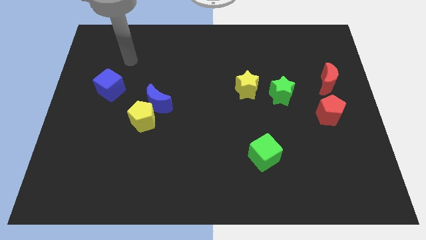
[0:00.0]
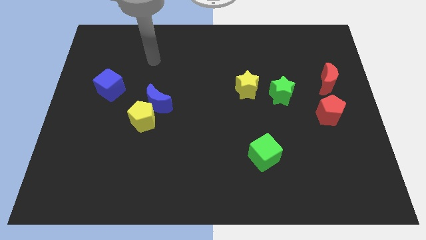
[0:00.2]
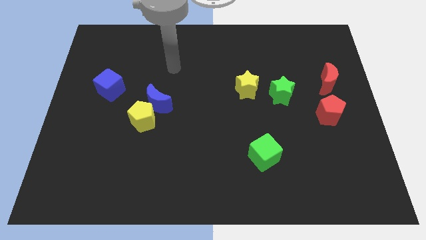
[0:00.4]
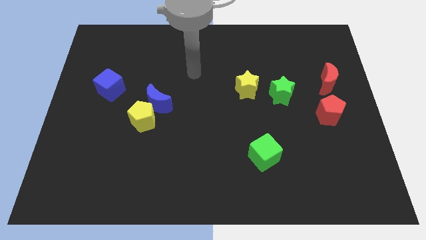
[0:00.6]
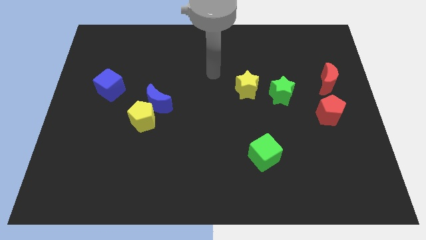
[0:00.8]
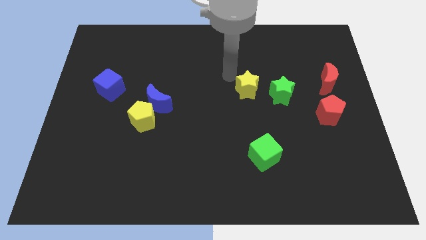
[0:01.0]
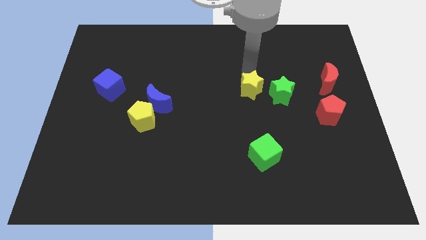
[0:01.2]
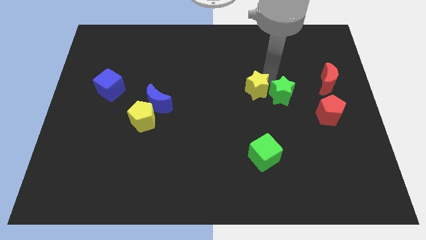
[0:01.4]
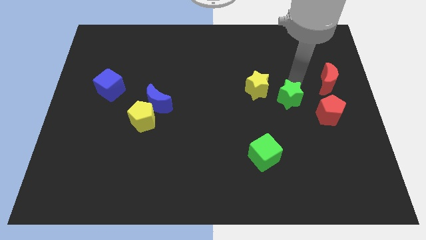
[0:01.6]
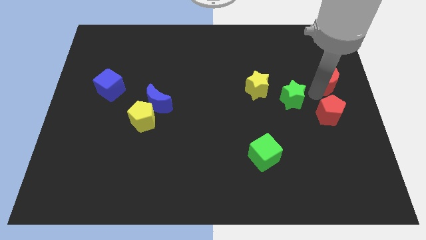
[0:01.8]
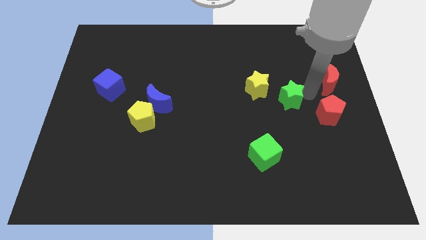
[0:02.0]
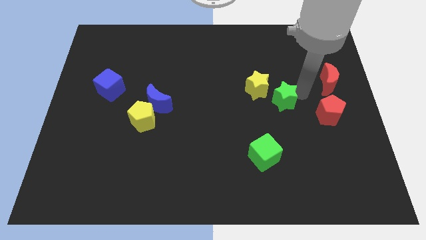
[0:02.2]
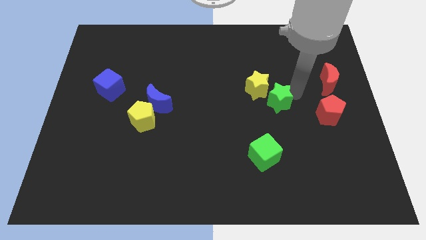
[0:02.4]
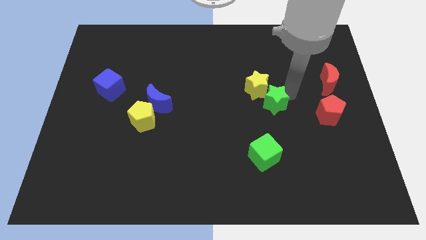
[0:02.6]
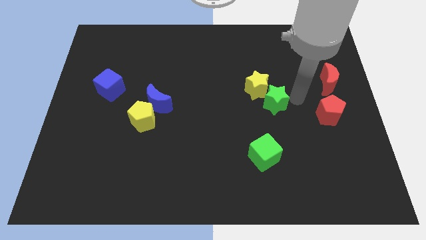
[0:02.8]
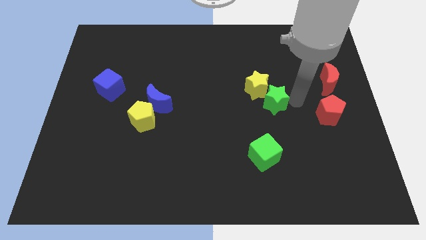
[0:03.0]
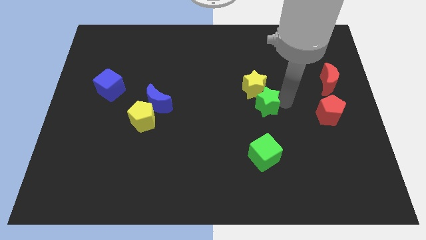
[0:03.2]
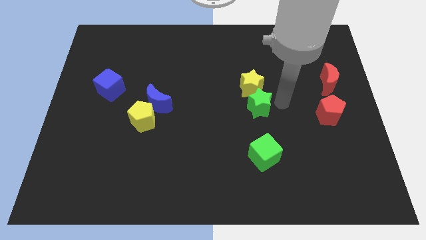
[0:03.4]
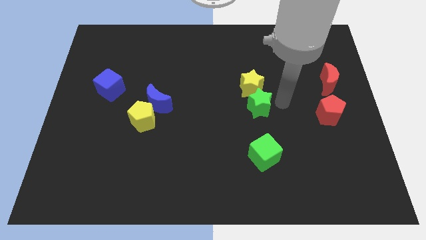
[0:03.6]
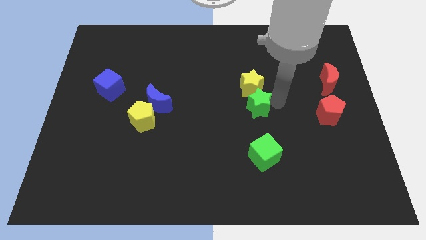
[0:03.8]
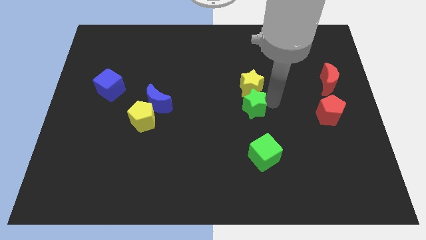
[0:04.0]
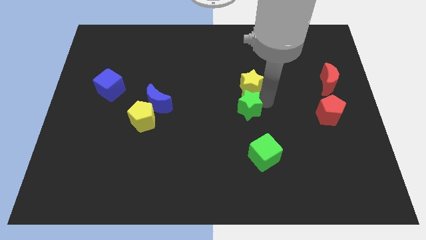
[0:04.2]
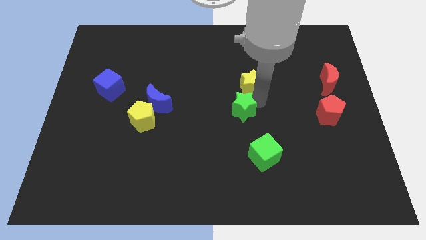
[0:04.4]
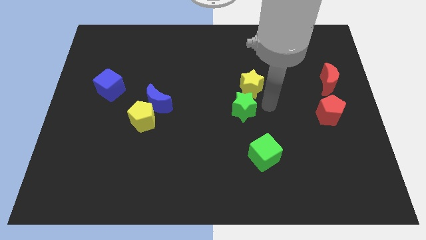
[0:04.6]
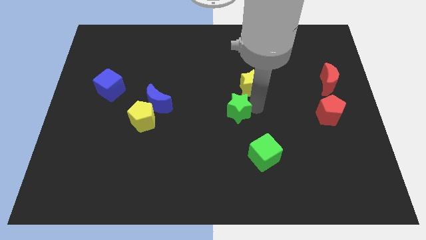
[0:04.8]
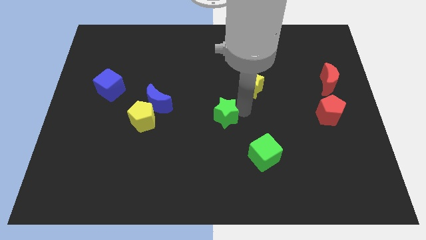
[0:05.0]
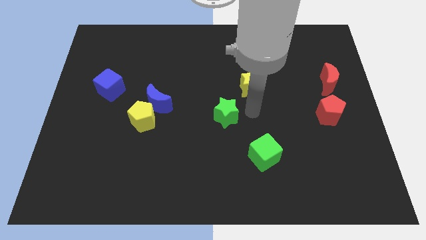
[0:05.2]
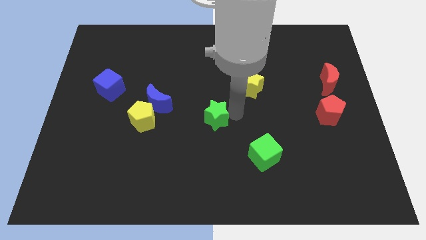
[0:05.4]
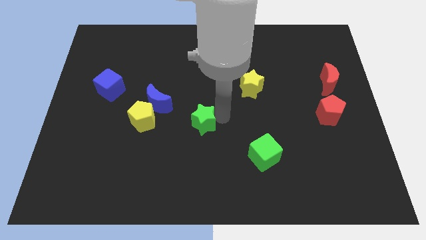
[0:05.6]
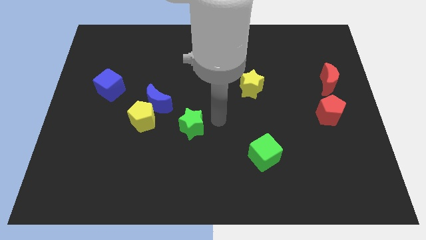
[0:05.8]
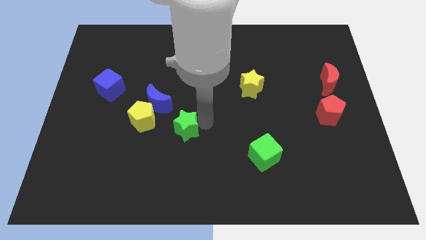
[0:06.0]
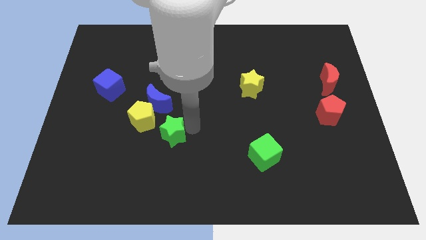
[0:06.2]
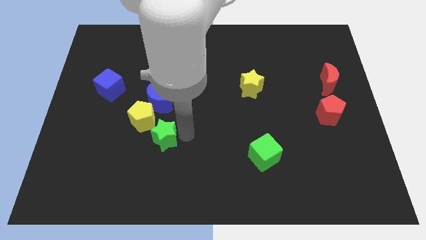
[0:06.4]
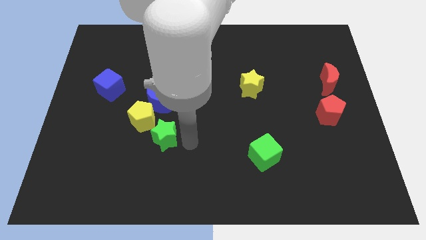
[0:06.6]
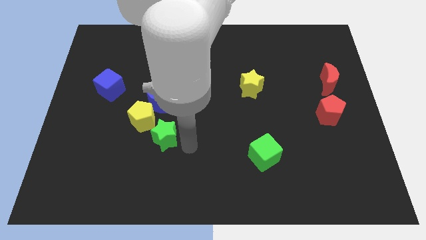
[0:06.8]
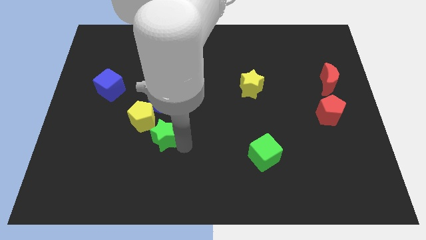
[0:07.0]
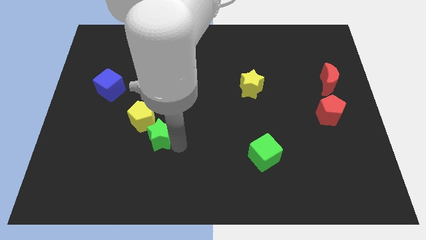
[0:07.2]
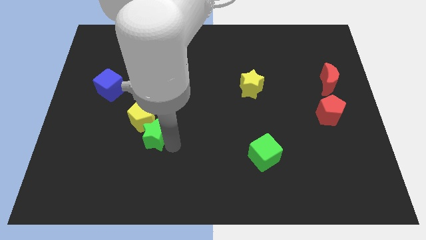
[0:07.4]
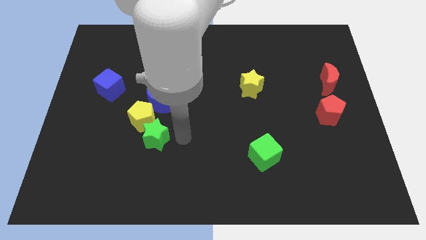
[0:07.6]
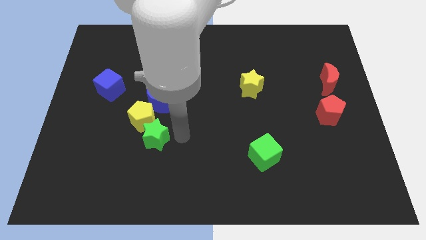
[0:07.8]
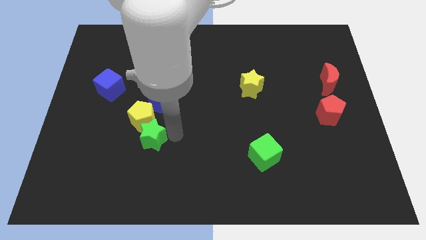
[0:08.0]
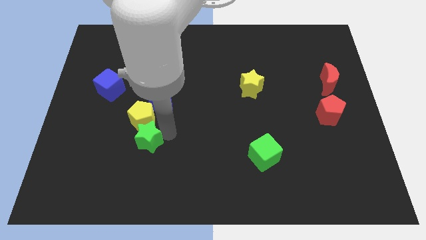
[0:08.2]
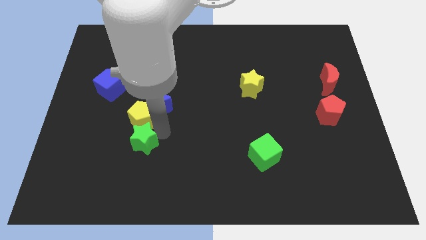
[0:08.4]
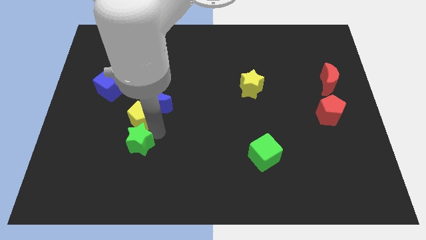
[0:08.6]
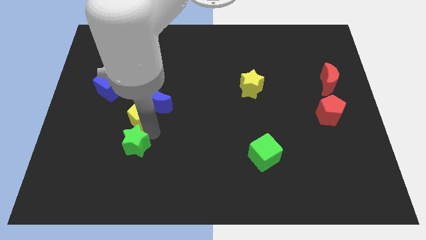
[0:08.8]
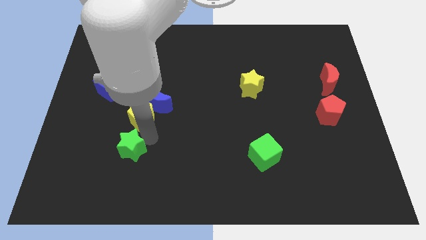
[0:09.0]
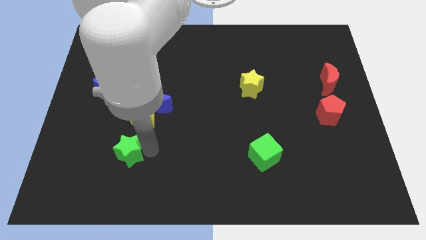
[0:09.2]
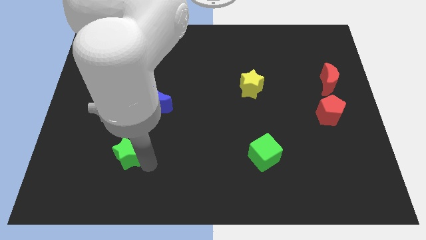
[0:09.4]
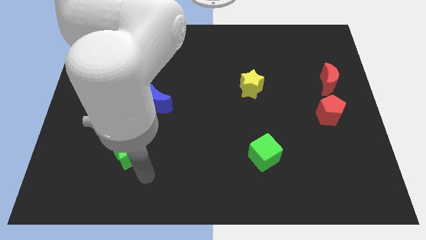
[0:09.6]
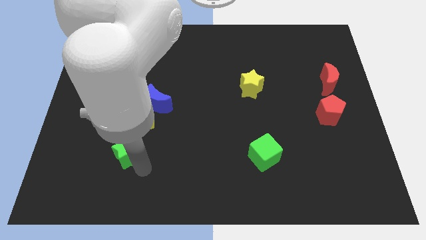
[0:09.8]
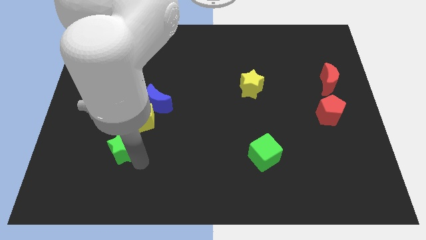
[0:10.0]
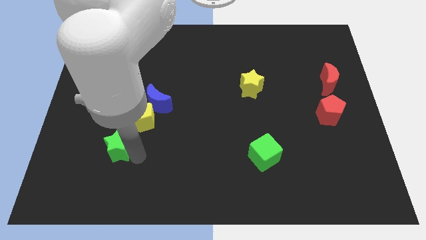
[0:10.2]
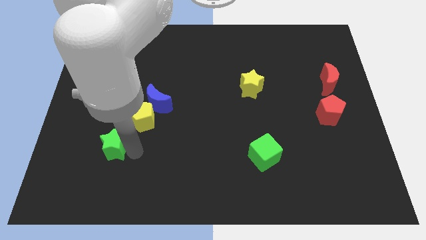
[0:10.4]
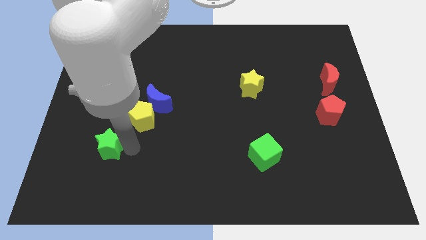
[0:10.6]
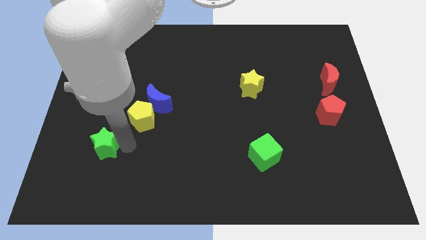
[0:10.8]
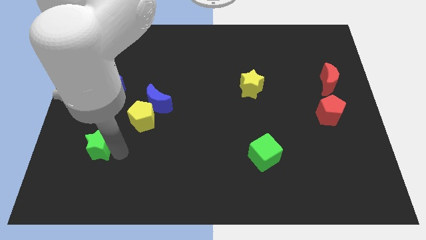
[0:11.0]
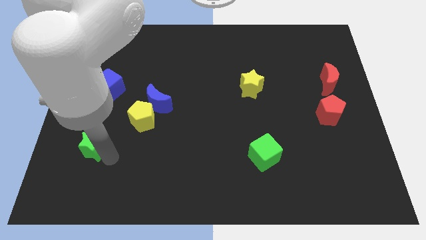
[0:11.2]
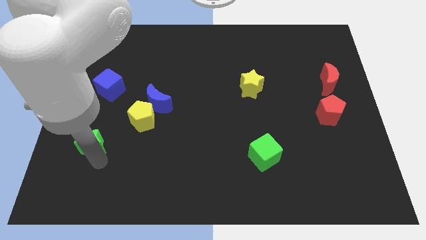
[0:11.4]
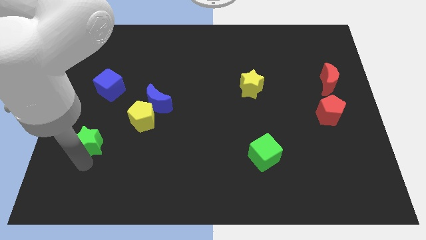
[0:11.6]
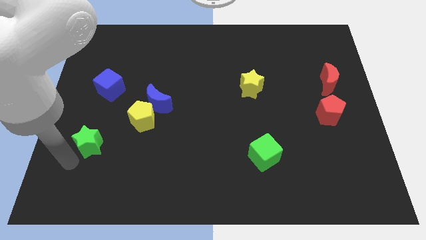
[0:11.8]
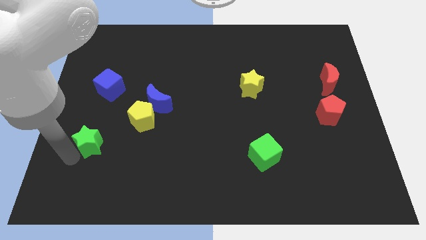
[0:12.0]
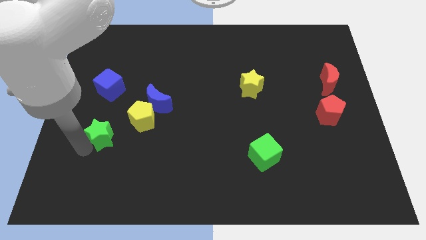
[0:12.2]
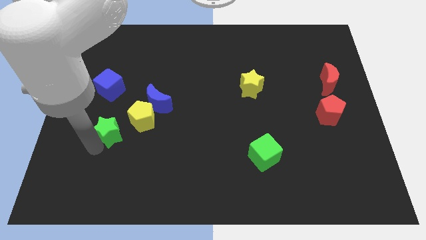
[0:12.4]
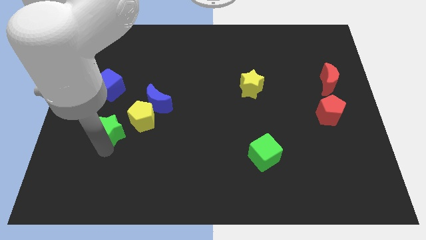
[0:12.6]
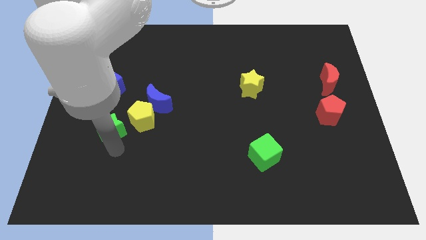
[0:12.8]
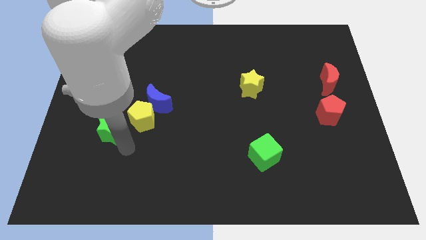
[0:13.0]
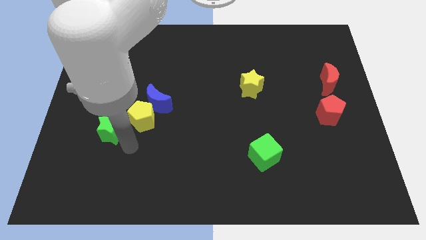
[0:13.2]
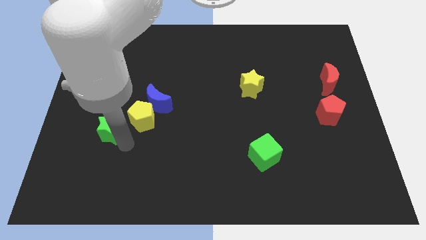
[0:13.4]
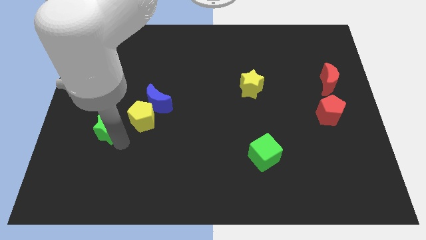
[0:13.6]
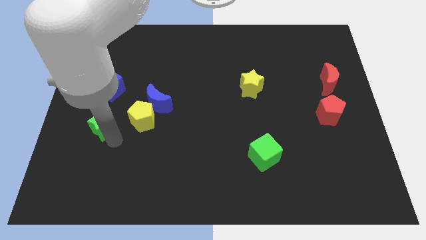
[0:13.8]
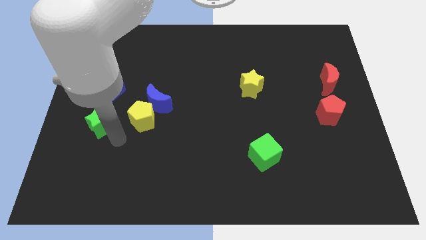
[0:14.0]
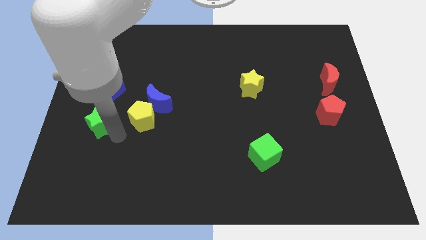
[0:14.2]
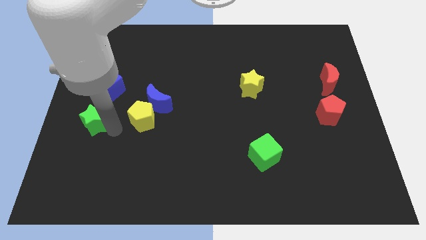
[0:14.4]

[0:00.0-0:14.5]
move the green star to the left side
